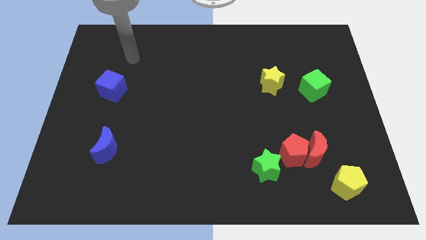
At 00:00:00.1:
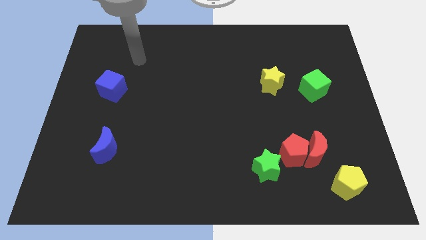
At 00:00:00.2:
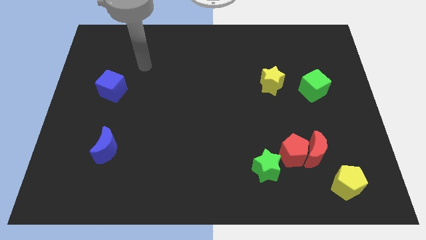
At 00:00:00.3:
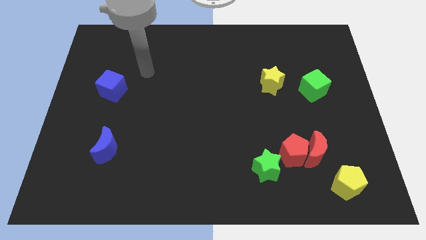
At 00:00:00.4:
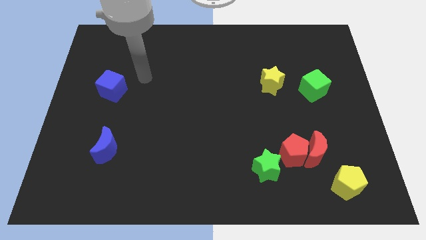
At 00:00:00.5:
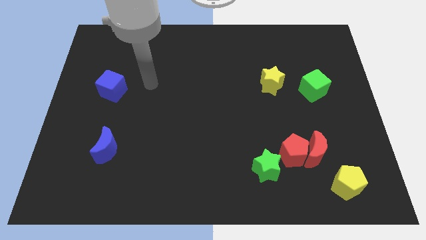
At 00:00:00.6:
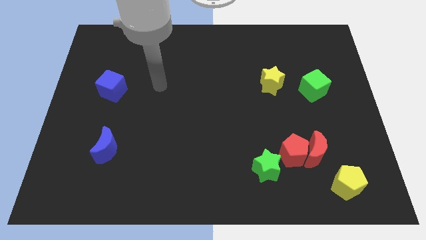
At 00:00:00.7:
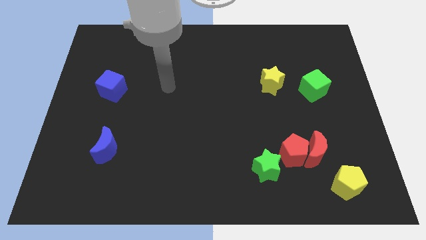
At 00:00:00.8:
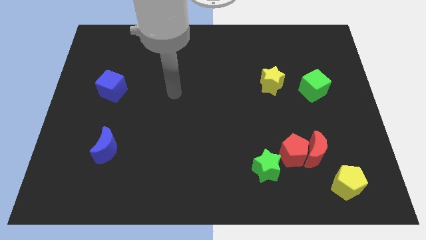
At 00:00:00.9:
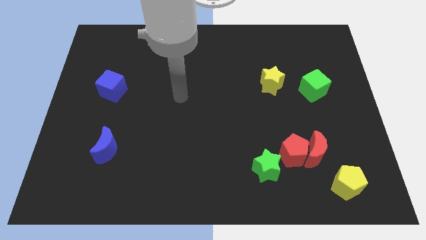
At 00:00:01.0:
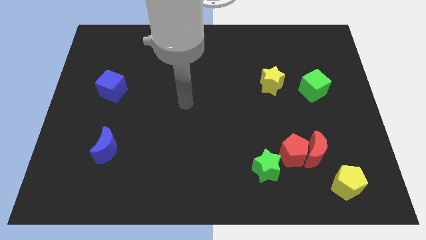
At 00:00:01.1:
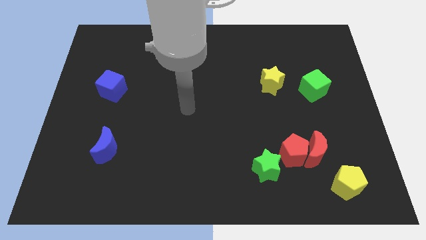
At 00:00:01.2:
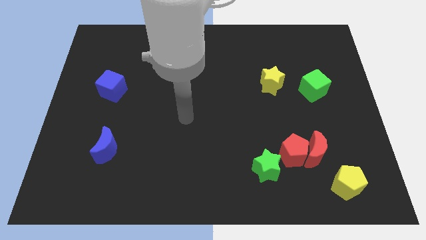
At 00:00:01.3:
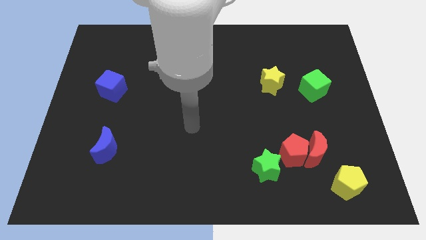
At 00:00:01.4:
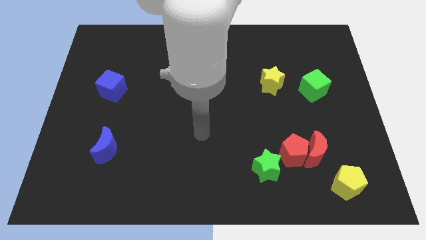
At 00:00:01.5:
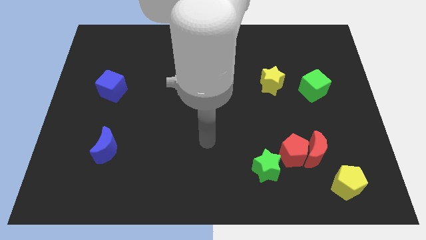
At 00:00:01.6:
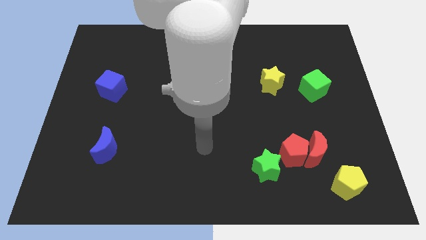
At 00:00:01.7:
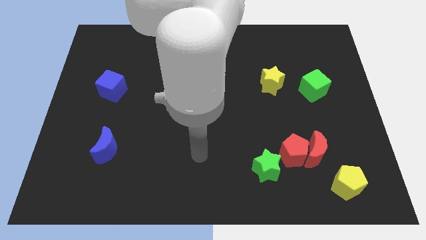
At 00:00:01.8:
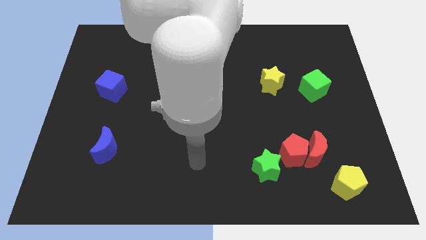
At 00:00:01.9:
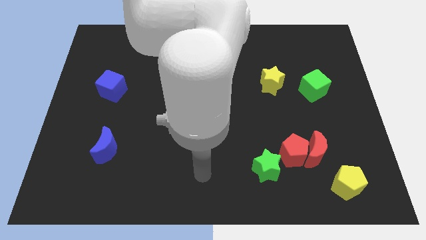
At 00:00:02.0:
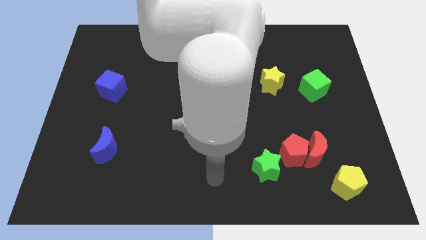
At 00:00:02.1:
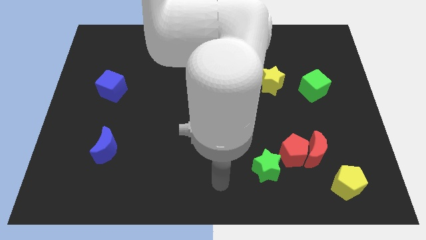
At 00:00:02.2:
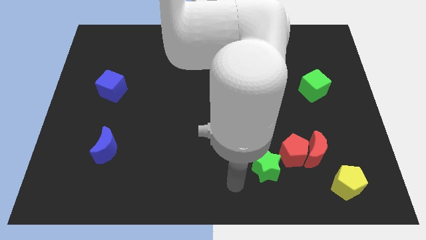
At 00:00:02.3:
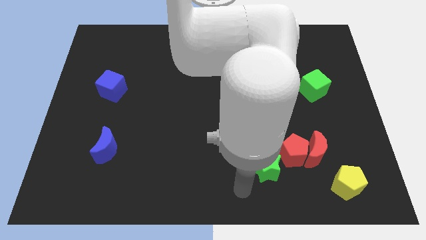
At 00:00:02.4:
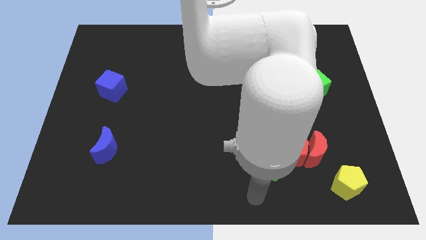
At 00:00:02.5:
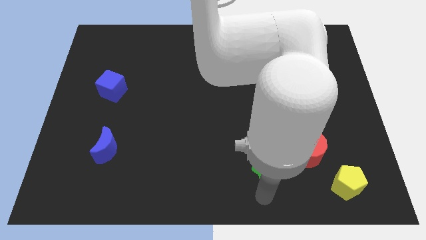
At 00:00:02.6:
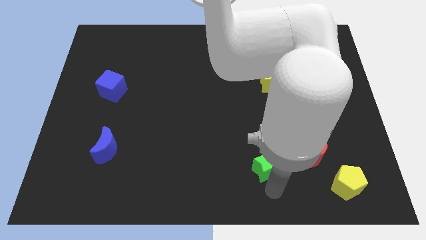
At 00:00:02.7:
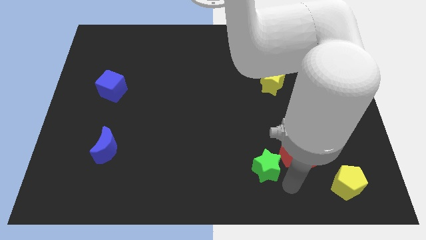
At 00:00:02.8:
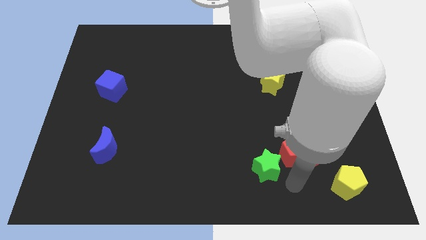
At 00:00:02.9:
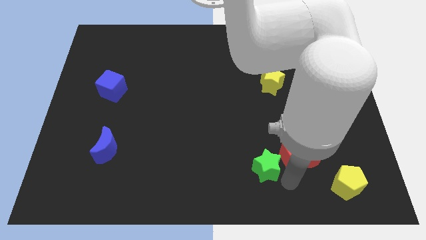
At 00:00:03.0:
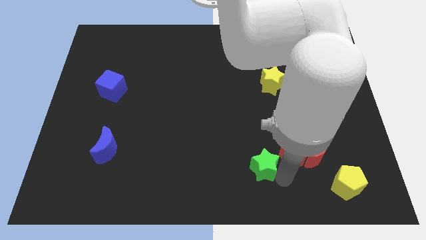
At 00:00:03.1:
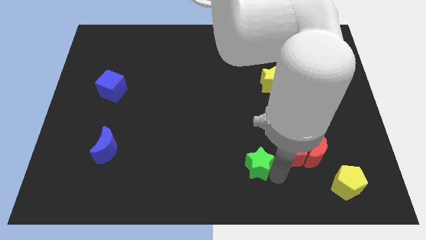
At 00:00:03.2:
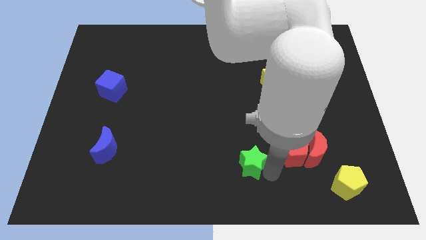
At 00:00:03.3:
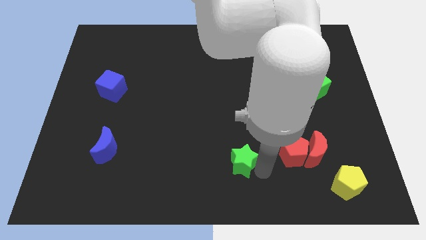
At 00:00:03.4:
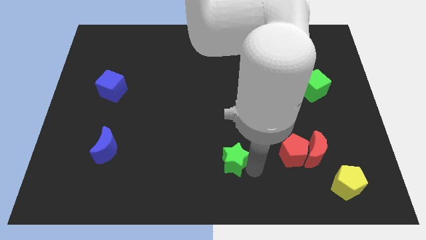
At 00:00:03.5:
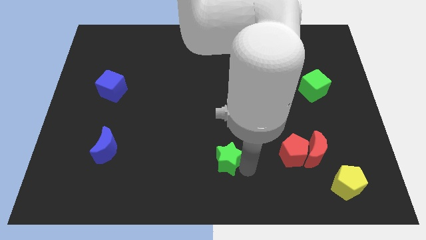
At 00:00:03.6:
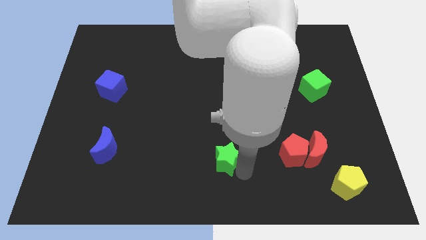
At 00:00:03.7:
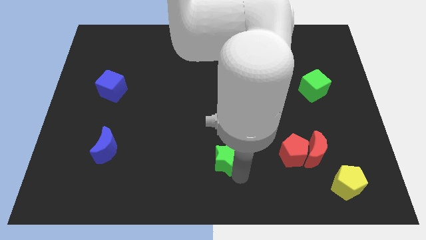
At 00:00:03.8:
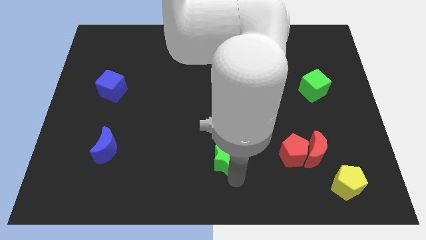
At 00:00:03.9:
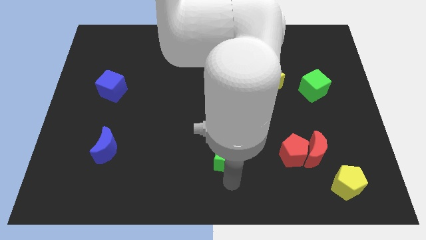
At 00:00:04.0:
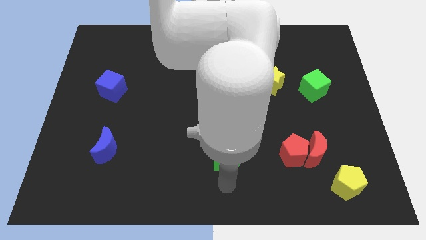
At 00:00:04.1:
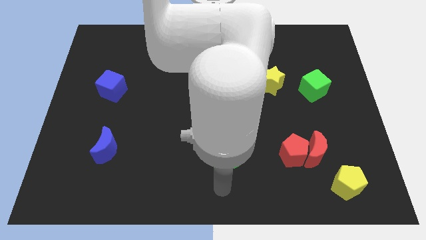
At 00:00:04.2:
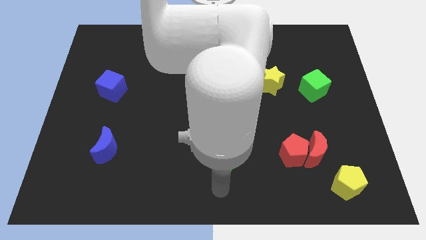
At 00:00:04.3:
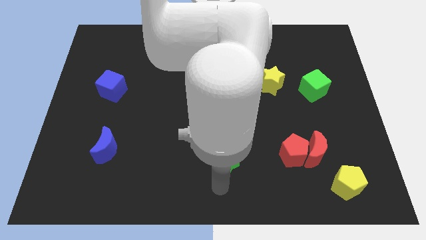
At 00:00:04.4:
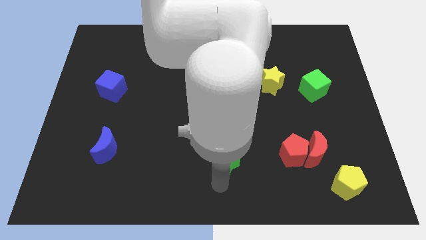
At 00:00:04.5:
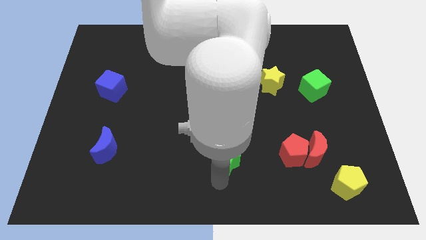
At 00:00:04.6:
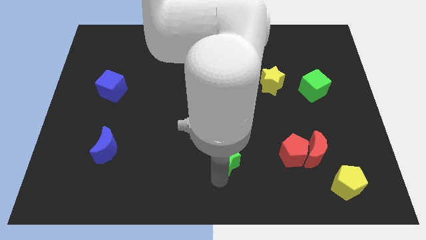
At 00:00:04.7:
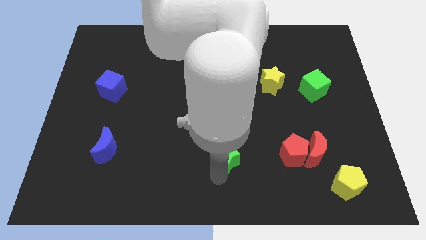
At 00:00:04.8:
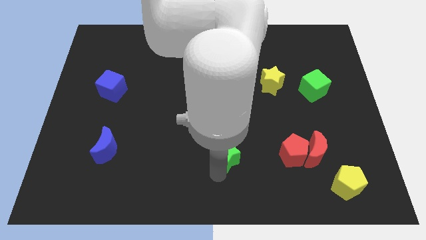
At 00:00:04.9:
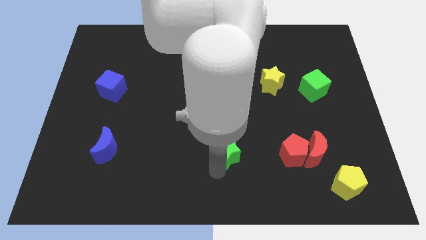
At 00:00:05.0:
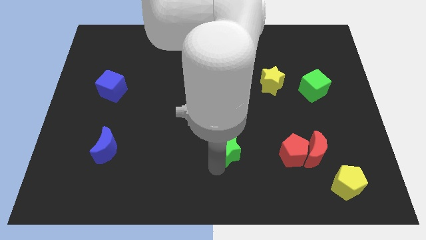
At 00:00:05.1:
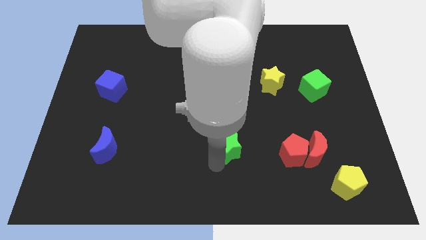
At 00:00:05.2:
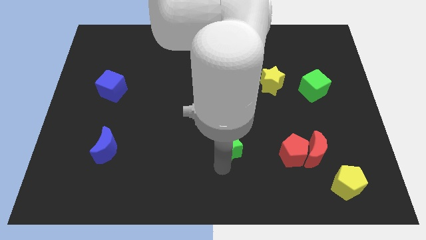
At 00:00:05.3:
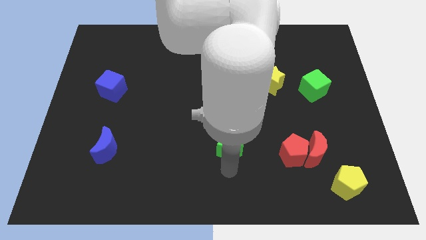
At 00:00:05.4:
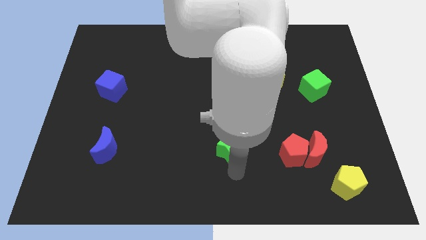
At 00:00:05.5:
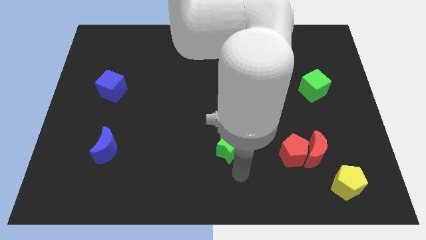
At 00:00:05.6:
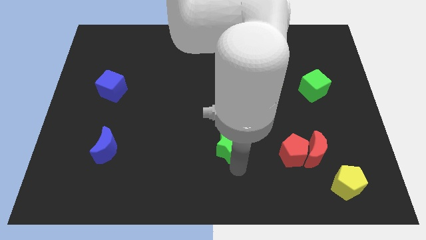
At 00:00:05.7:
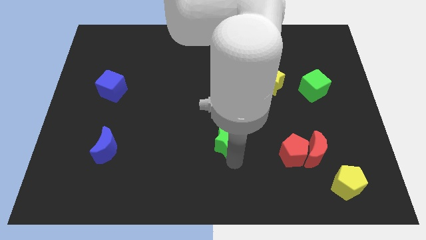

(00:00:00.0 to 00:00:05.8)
put the green star to the middle

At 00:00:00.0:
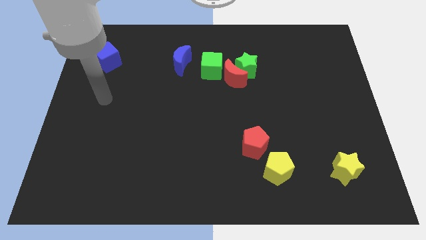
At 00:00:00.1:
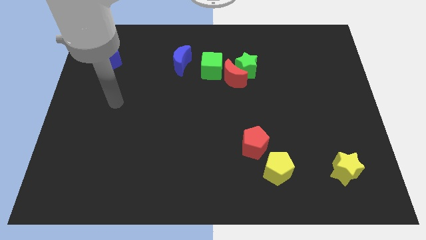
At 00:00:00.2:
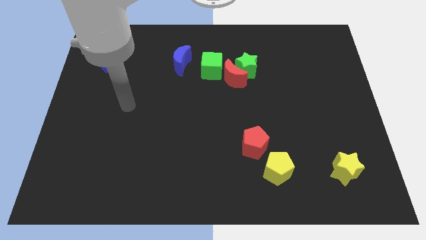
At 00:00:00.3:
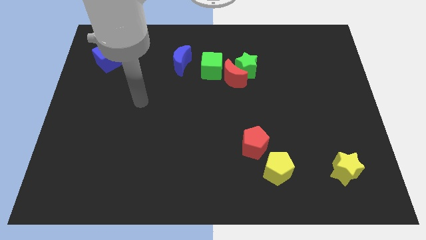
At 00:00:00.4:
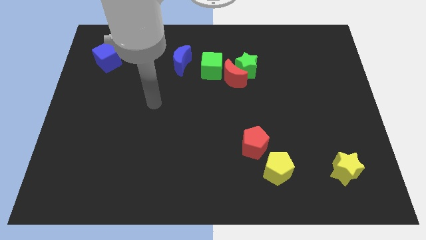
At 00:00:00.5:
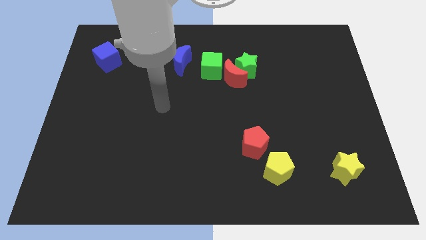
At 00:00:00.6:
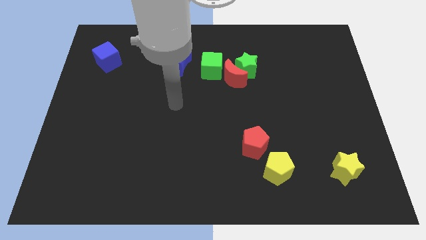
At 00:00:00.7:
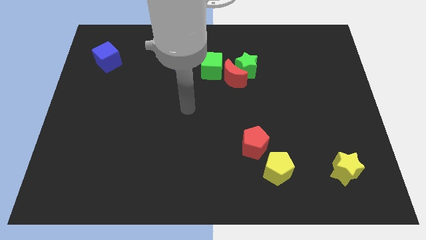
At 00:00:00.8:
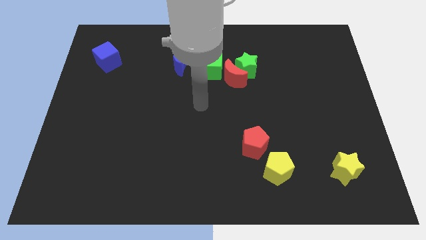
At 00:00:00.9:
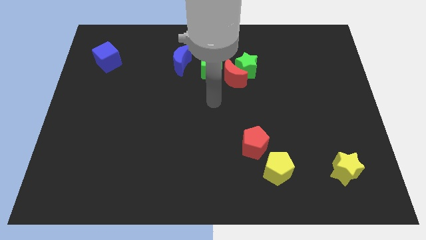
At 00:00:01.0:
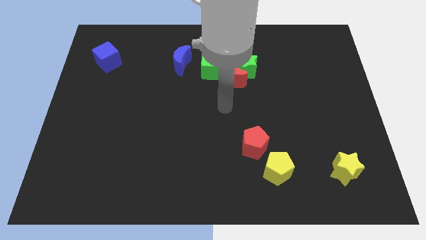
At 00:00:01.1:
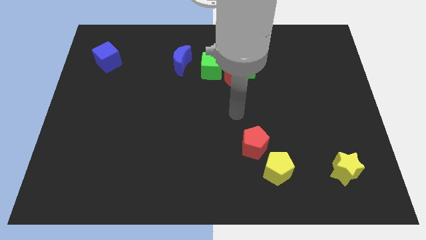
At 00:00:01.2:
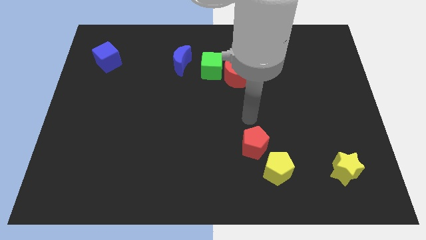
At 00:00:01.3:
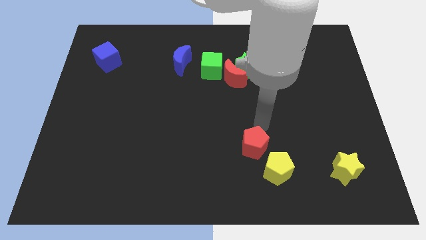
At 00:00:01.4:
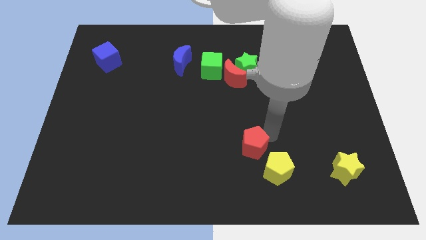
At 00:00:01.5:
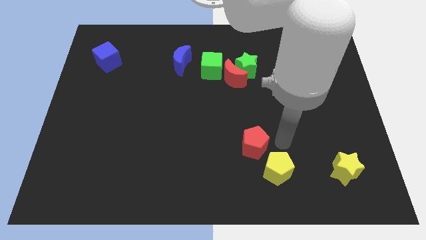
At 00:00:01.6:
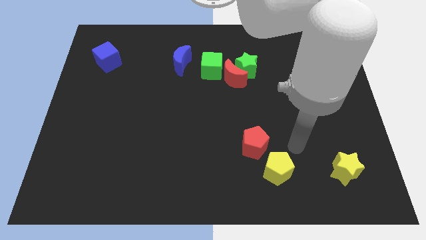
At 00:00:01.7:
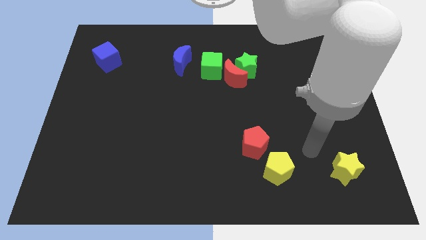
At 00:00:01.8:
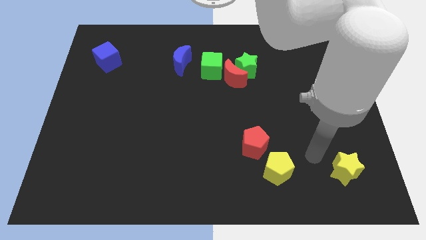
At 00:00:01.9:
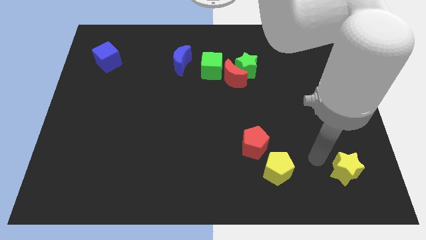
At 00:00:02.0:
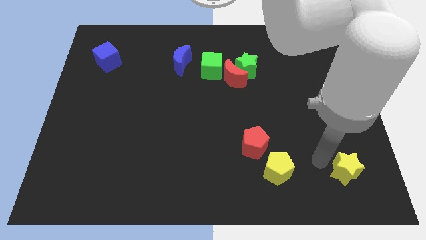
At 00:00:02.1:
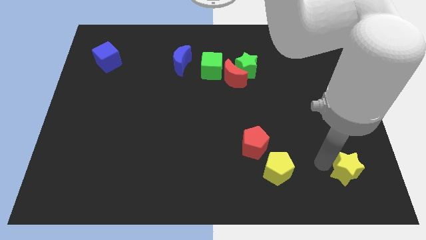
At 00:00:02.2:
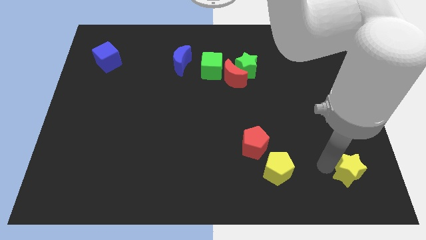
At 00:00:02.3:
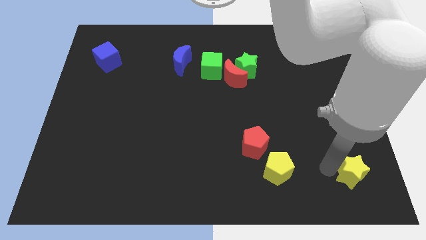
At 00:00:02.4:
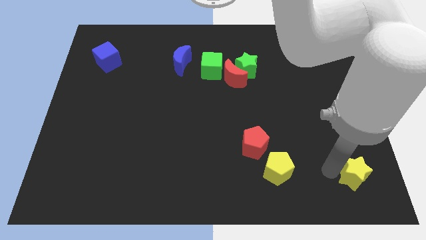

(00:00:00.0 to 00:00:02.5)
put the yellow star to the bottom right corner
